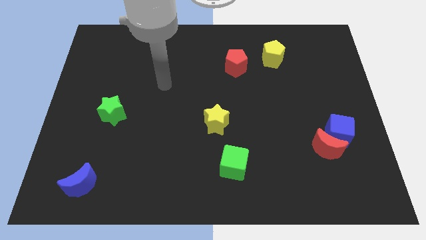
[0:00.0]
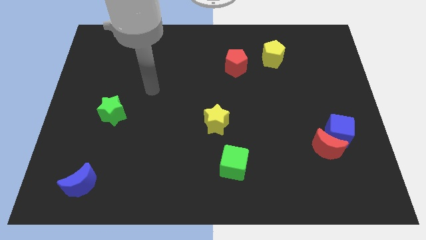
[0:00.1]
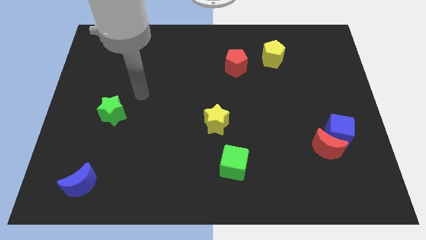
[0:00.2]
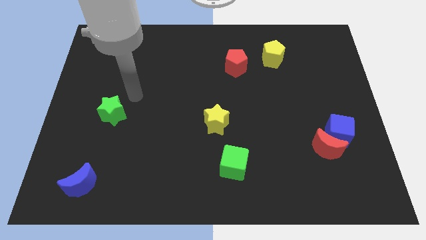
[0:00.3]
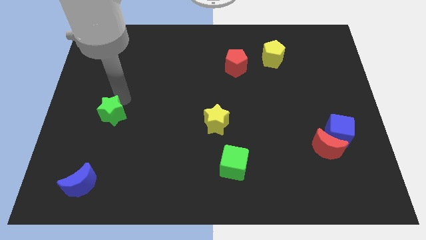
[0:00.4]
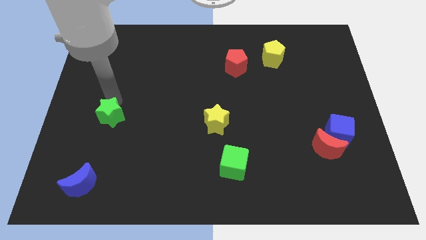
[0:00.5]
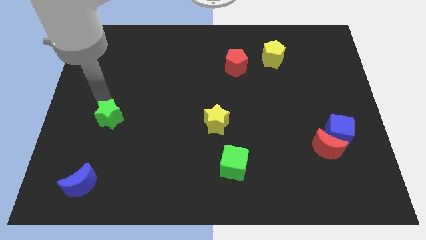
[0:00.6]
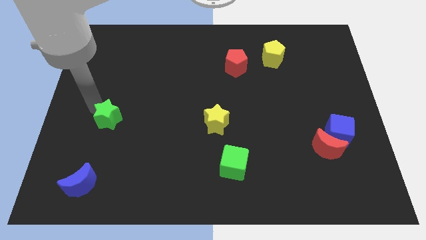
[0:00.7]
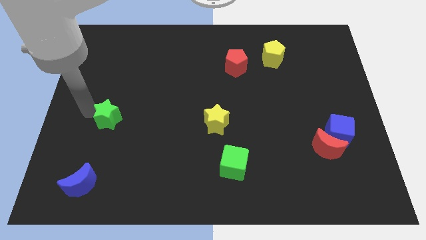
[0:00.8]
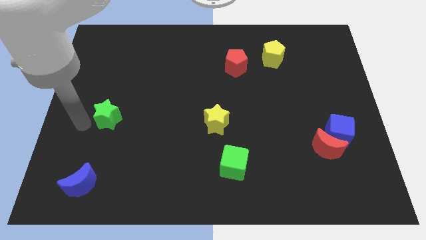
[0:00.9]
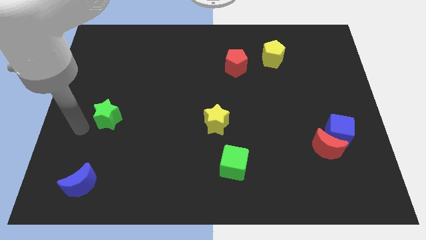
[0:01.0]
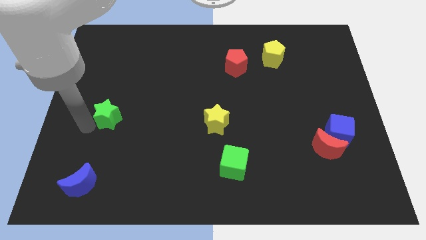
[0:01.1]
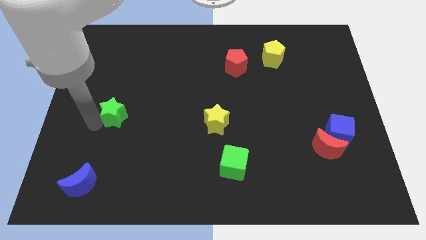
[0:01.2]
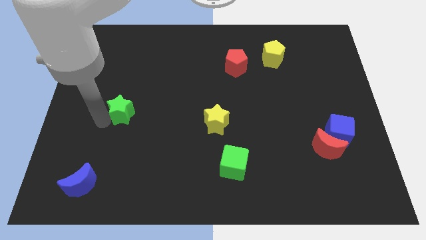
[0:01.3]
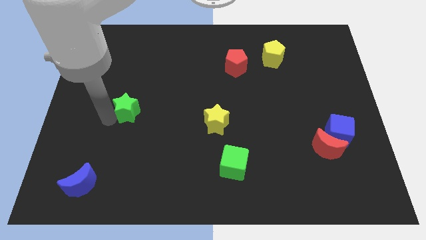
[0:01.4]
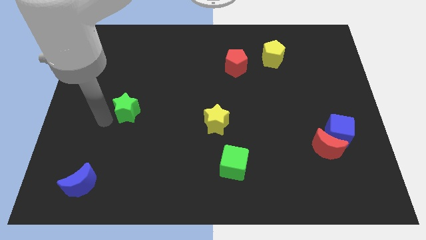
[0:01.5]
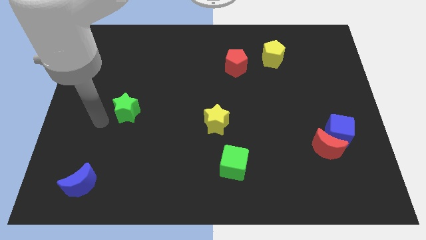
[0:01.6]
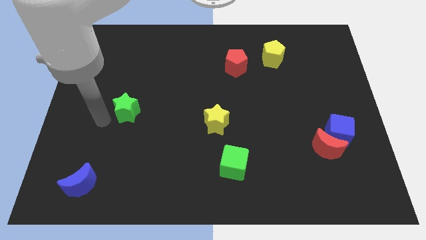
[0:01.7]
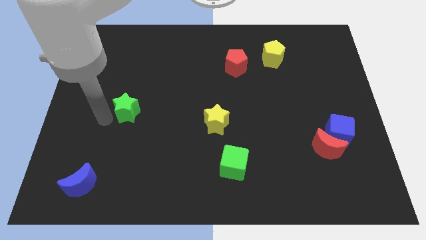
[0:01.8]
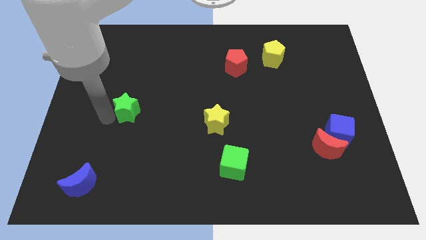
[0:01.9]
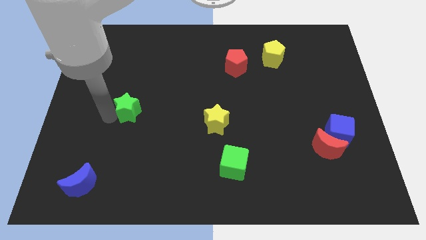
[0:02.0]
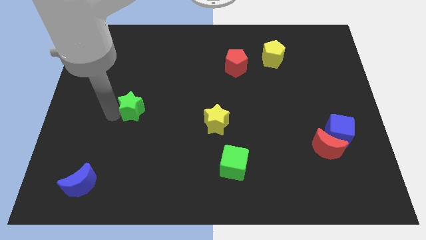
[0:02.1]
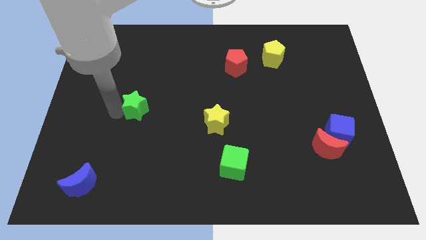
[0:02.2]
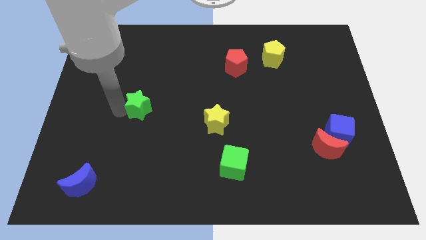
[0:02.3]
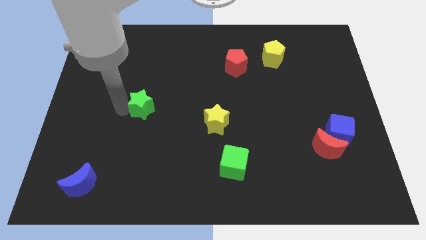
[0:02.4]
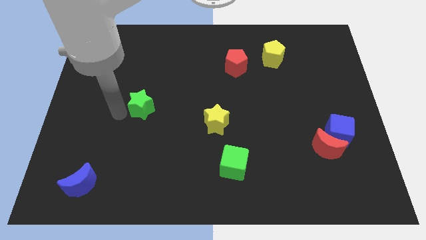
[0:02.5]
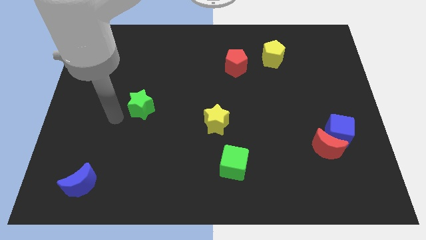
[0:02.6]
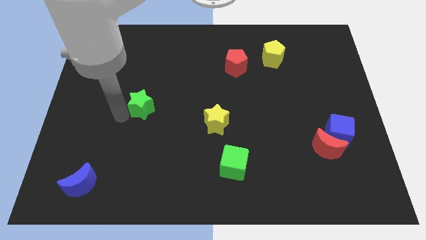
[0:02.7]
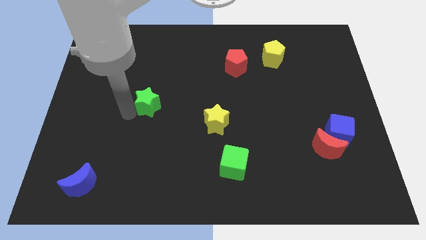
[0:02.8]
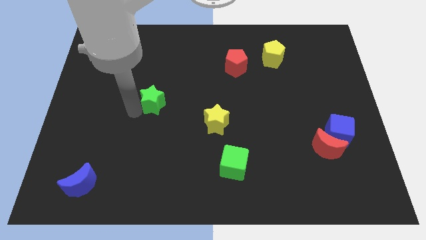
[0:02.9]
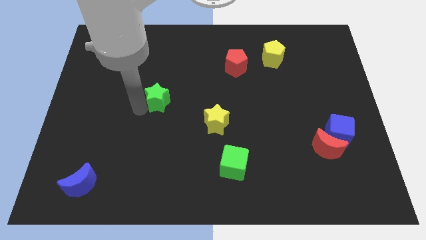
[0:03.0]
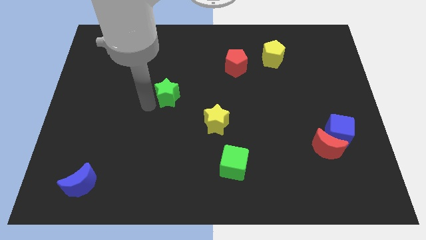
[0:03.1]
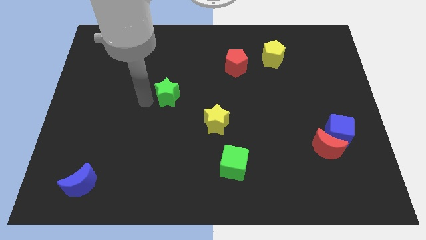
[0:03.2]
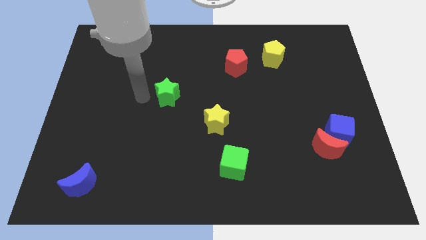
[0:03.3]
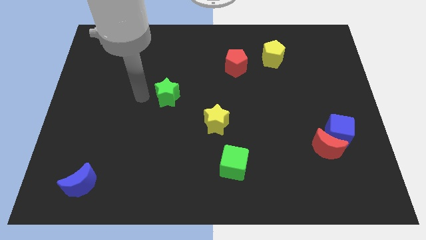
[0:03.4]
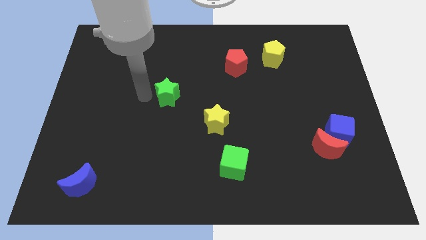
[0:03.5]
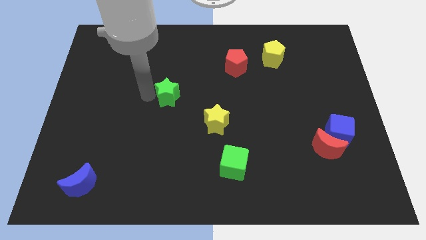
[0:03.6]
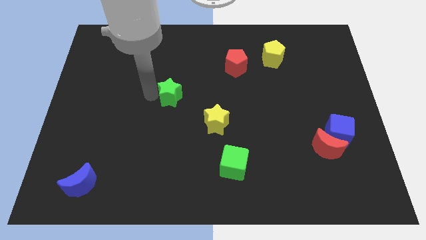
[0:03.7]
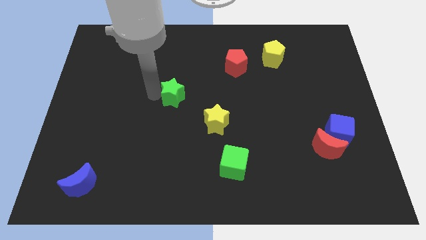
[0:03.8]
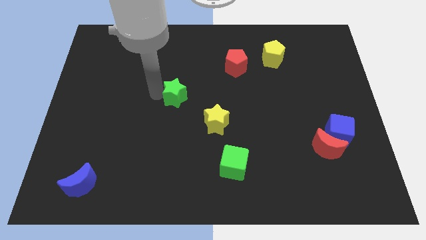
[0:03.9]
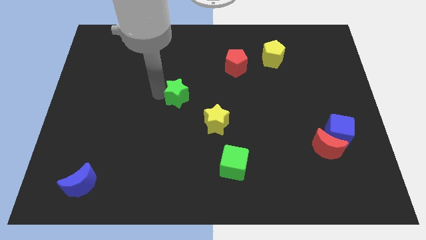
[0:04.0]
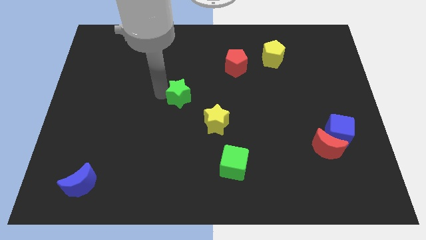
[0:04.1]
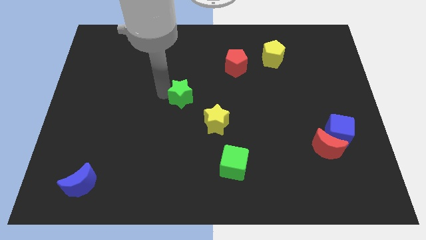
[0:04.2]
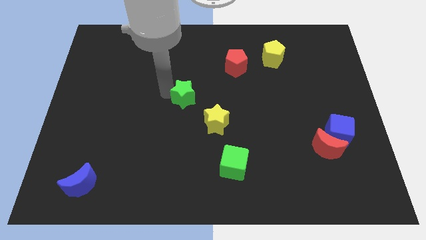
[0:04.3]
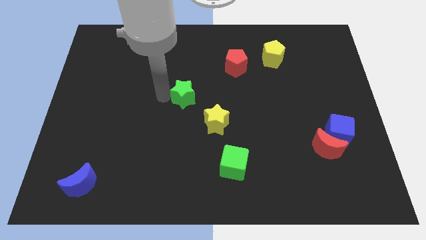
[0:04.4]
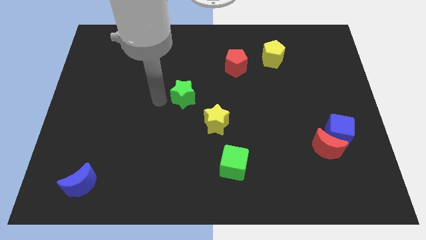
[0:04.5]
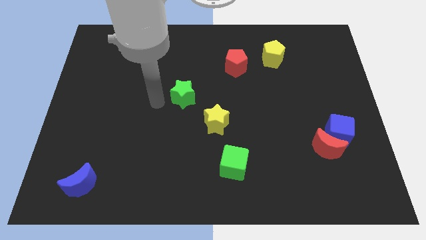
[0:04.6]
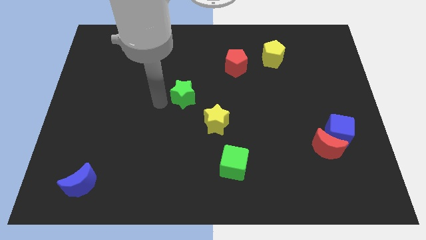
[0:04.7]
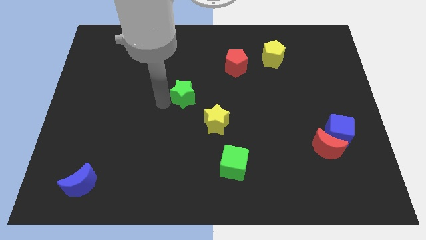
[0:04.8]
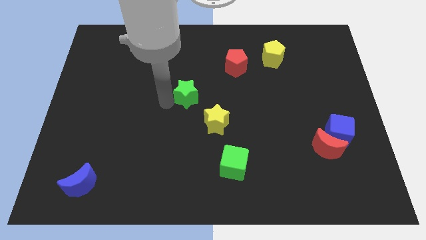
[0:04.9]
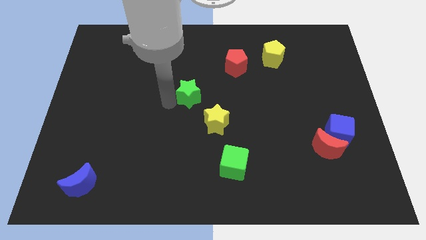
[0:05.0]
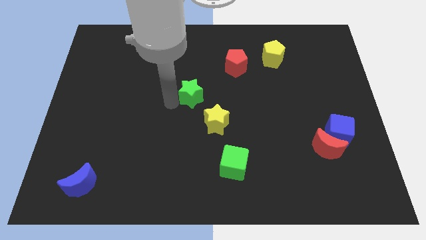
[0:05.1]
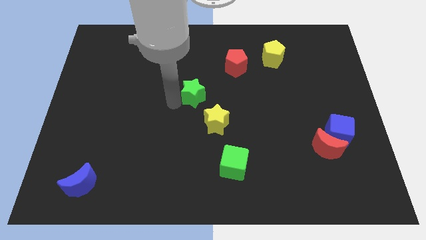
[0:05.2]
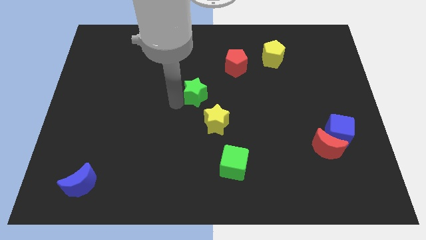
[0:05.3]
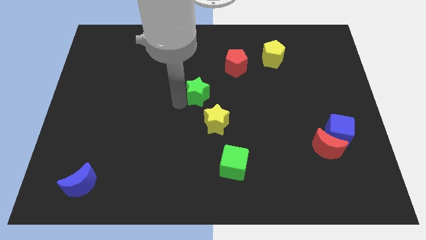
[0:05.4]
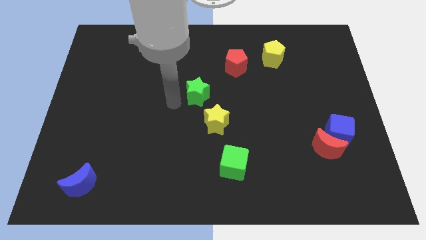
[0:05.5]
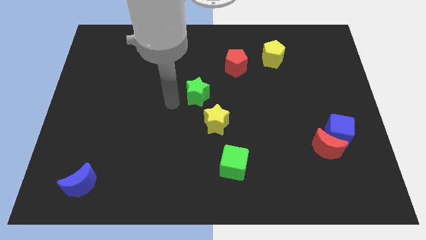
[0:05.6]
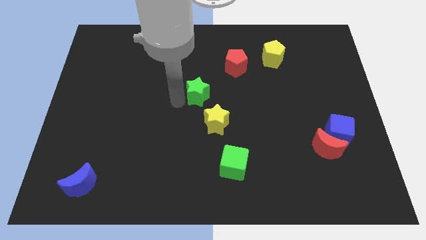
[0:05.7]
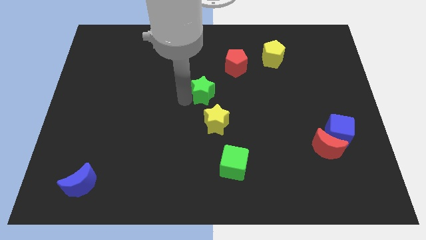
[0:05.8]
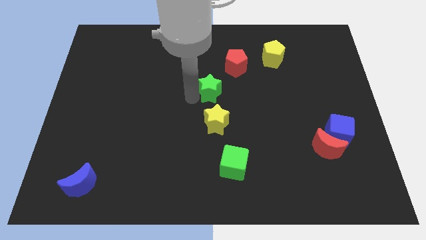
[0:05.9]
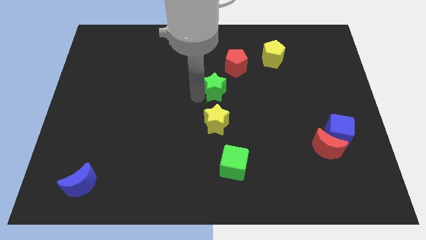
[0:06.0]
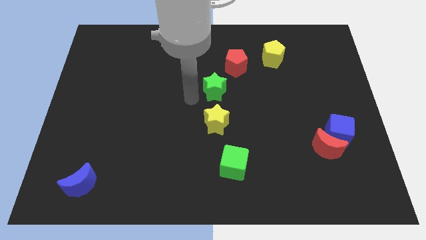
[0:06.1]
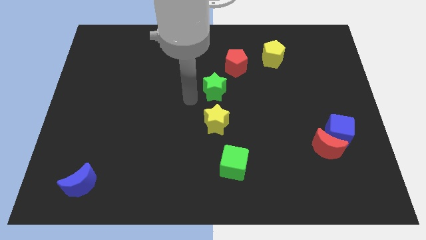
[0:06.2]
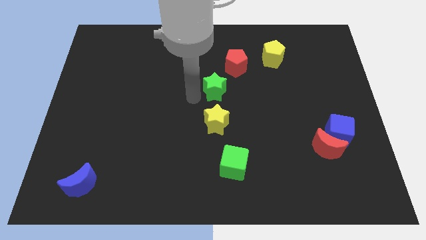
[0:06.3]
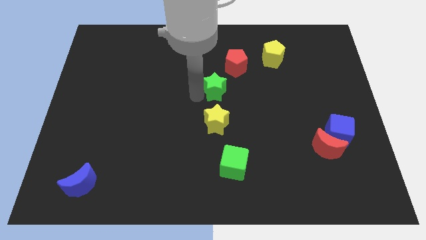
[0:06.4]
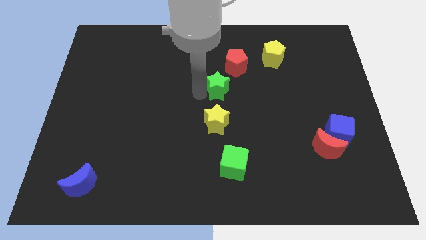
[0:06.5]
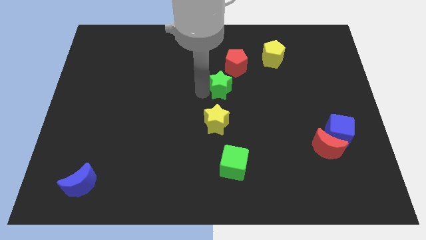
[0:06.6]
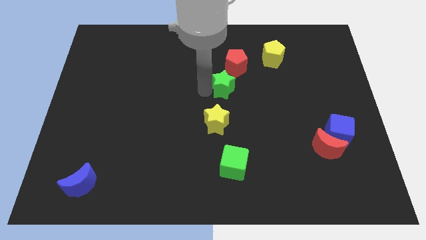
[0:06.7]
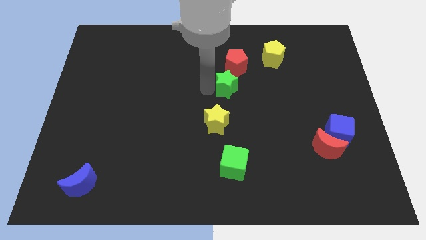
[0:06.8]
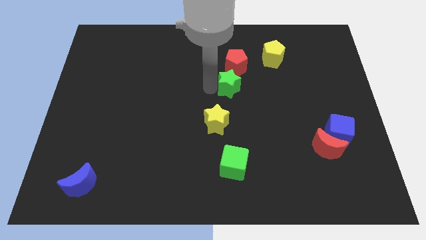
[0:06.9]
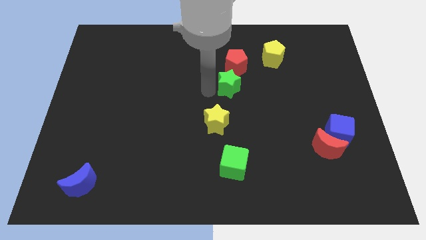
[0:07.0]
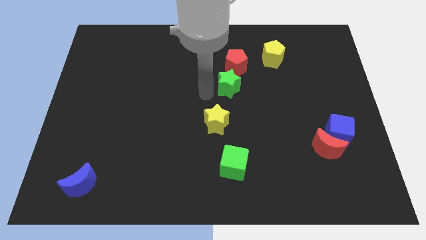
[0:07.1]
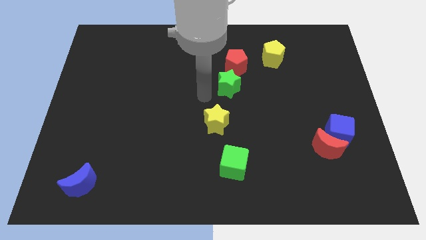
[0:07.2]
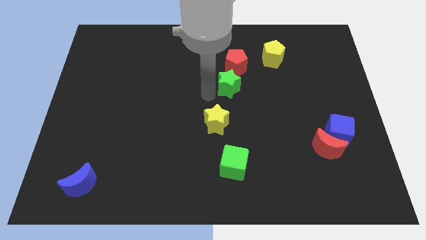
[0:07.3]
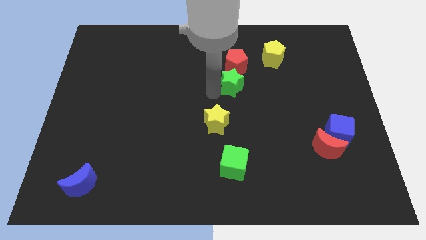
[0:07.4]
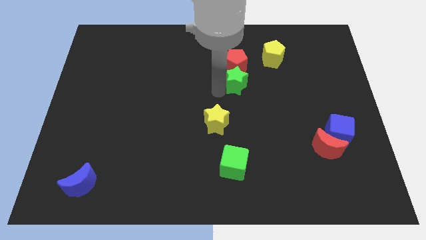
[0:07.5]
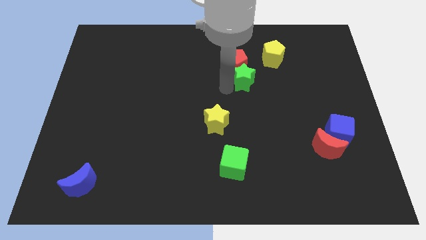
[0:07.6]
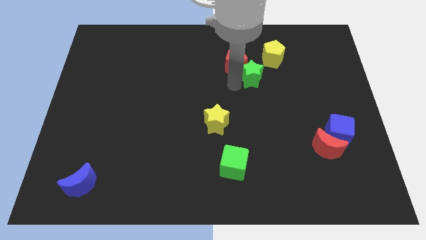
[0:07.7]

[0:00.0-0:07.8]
slide the green star to the right of the red pentagon
